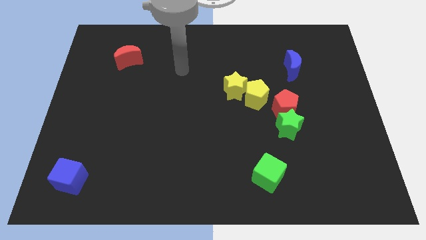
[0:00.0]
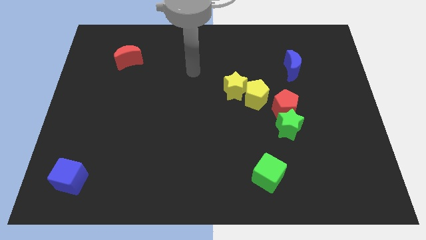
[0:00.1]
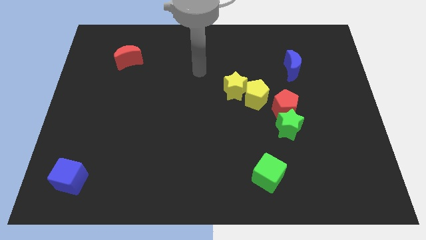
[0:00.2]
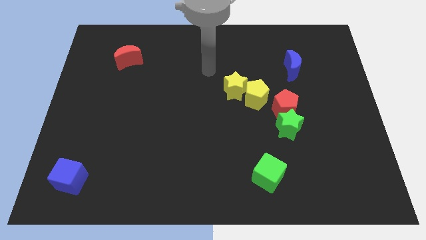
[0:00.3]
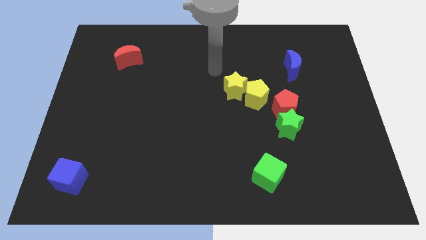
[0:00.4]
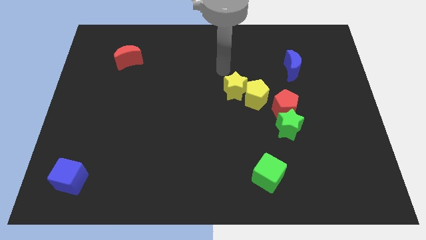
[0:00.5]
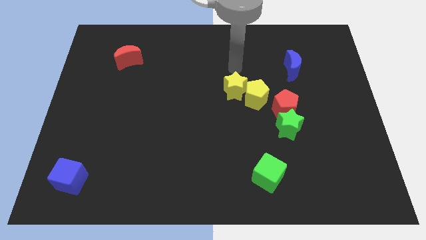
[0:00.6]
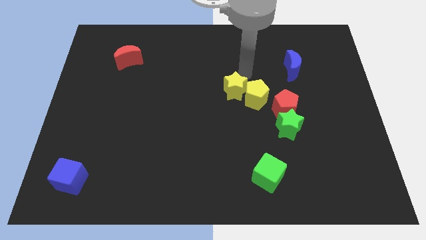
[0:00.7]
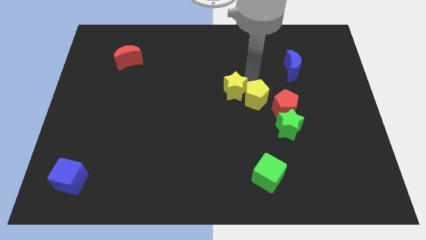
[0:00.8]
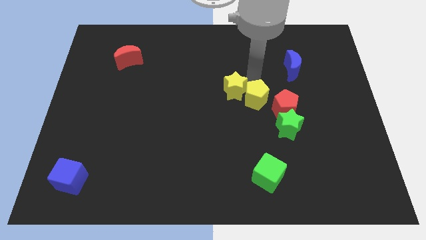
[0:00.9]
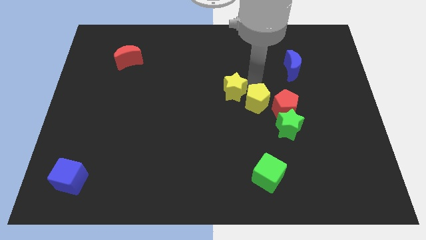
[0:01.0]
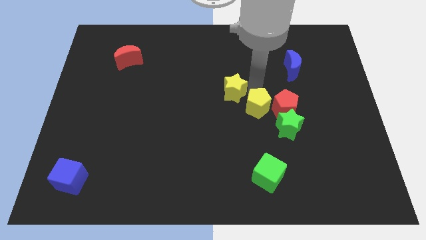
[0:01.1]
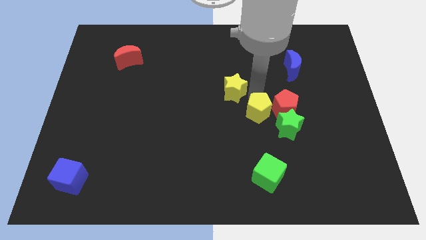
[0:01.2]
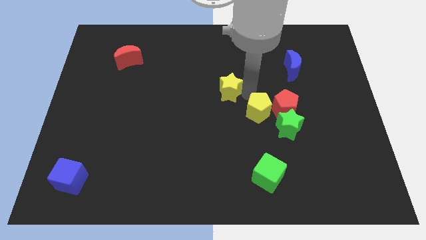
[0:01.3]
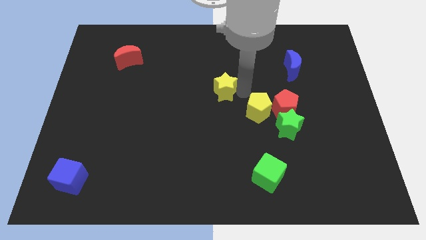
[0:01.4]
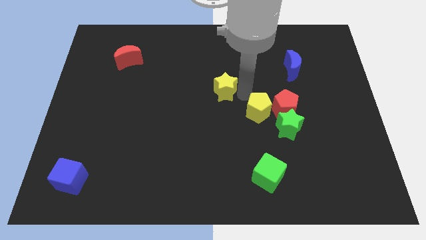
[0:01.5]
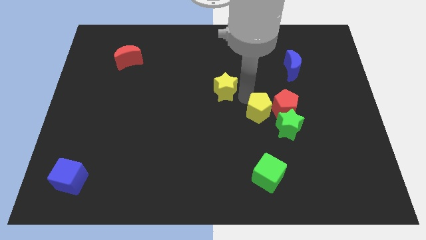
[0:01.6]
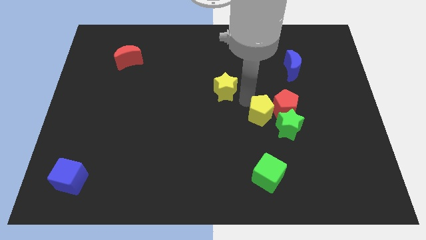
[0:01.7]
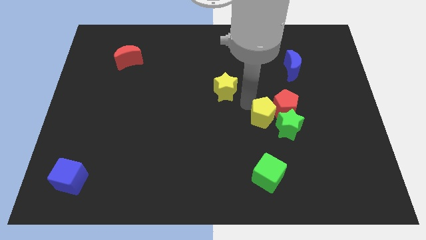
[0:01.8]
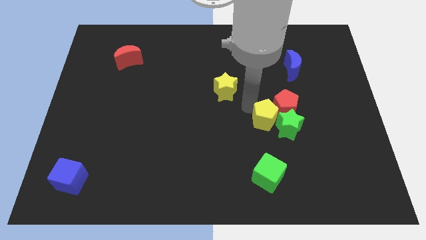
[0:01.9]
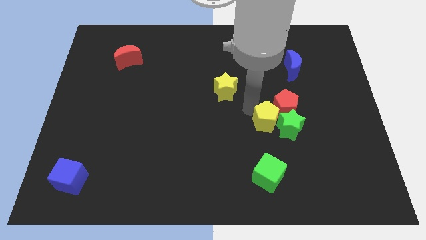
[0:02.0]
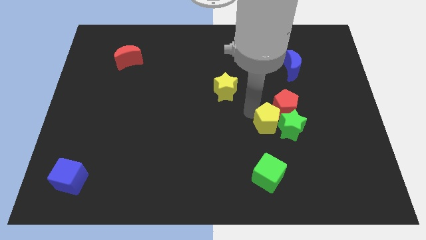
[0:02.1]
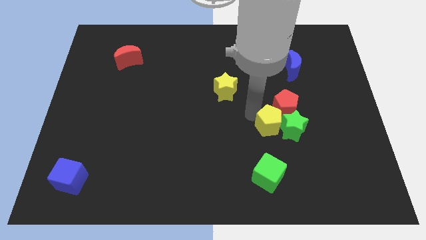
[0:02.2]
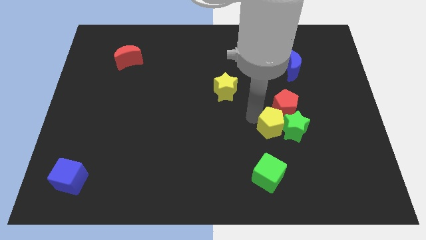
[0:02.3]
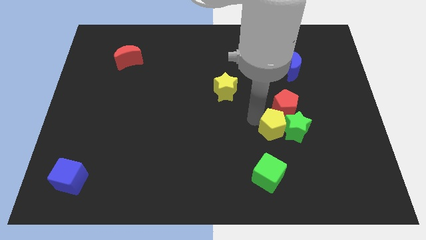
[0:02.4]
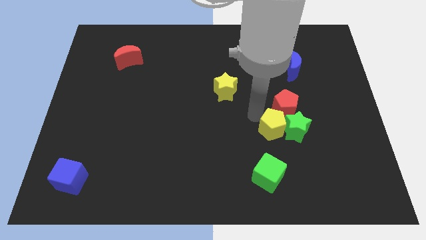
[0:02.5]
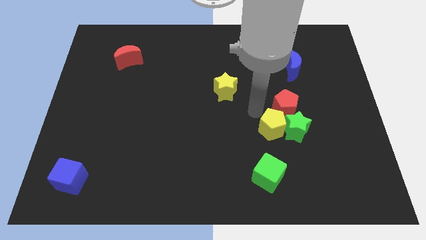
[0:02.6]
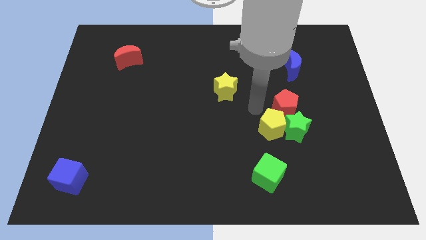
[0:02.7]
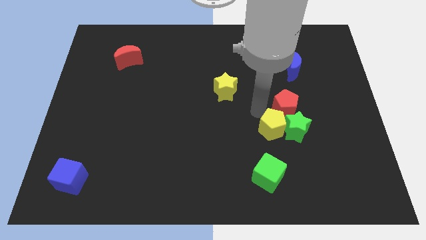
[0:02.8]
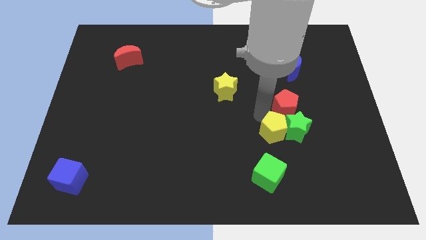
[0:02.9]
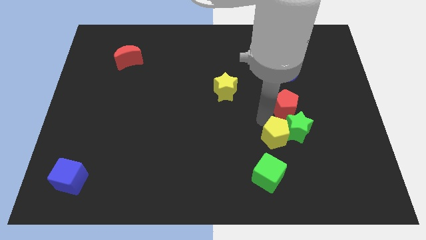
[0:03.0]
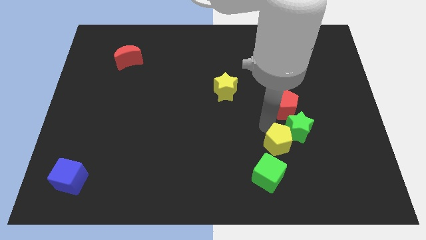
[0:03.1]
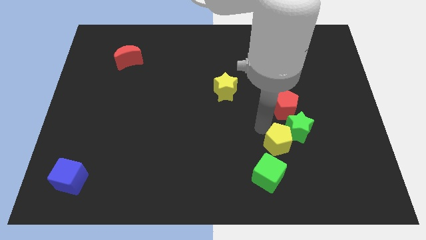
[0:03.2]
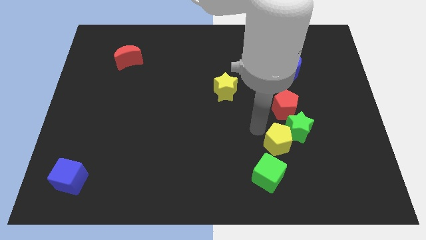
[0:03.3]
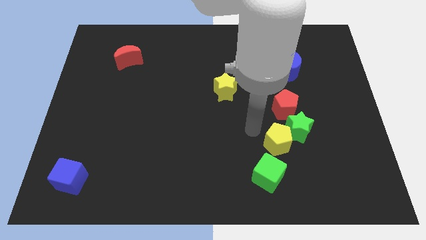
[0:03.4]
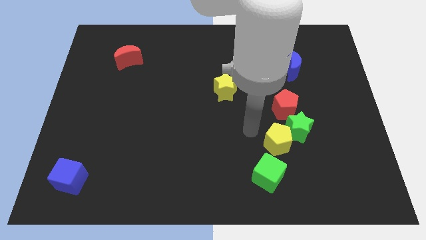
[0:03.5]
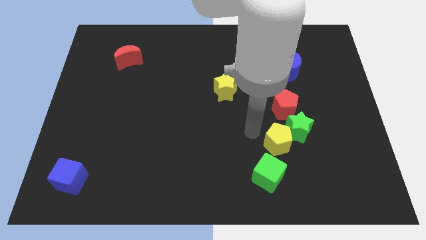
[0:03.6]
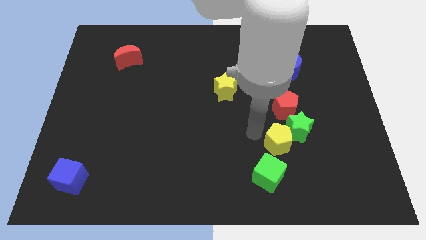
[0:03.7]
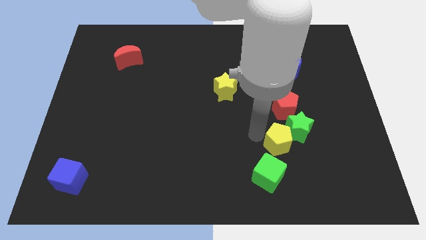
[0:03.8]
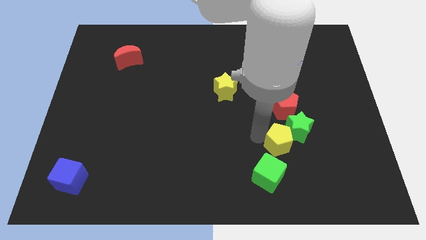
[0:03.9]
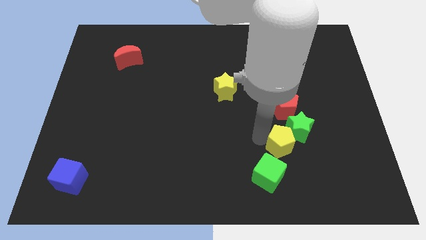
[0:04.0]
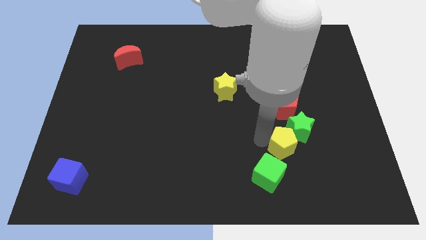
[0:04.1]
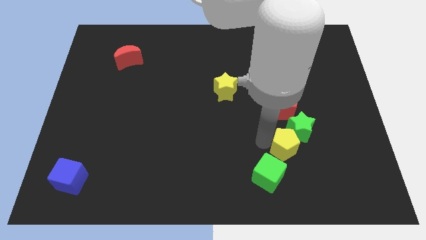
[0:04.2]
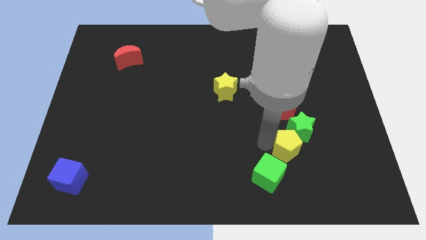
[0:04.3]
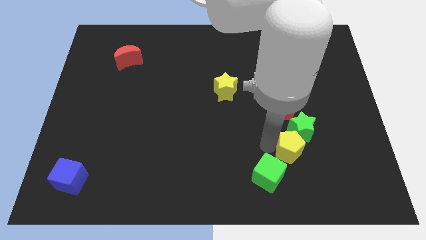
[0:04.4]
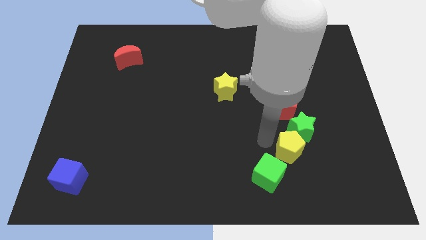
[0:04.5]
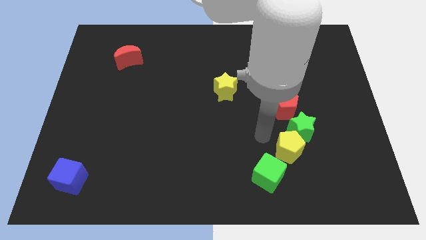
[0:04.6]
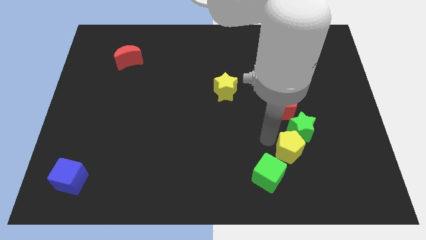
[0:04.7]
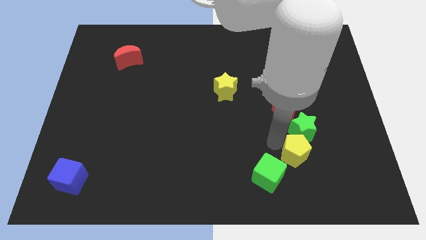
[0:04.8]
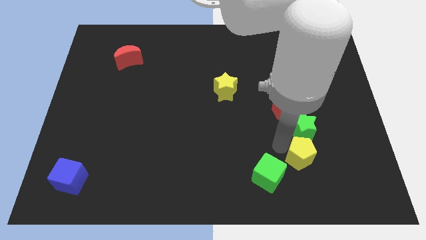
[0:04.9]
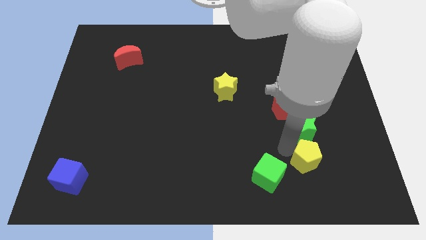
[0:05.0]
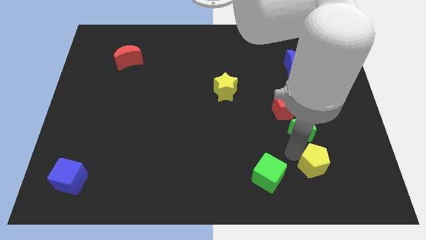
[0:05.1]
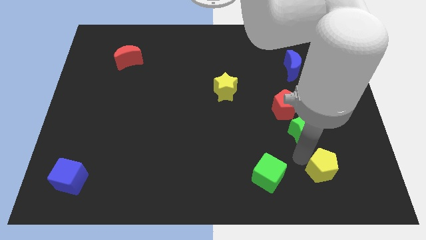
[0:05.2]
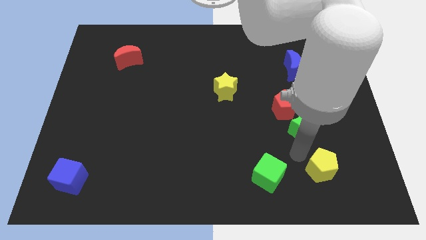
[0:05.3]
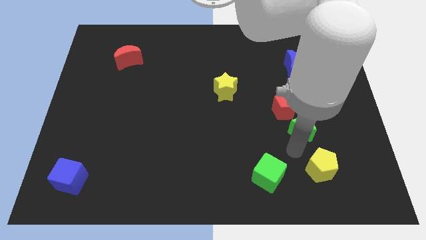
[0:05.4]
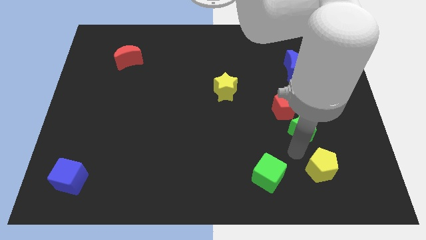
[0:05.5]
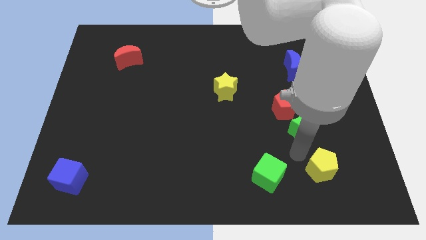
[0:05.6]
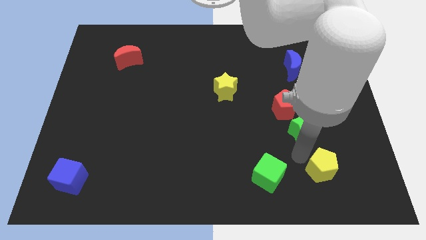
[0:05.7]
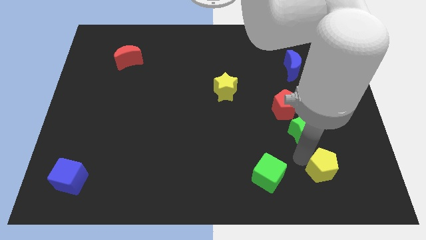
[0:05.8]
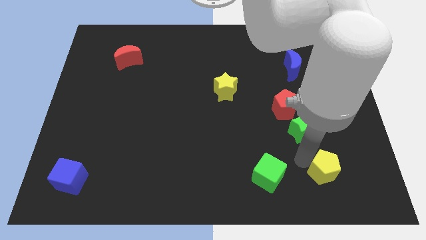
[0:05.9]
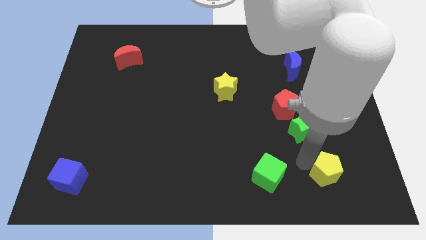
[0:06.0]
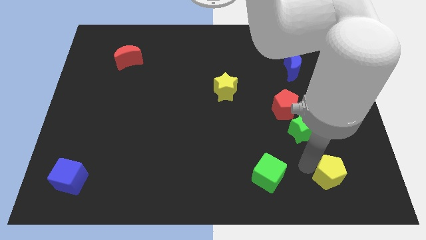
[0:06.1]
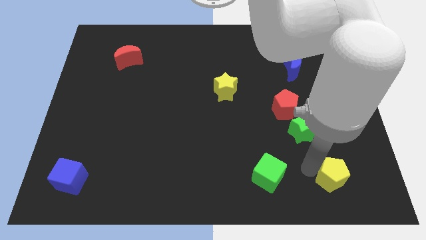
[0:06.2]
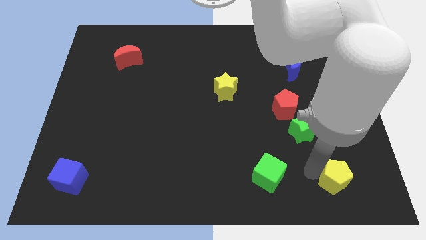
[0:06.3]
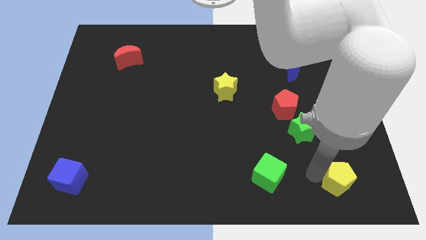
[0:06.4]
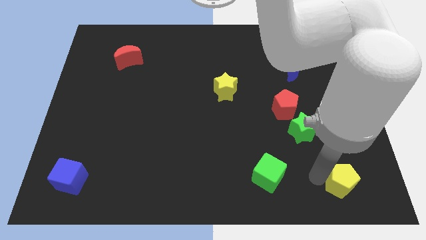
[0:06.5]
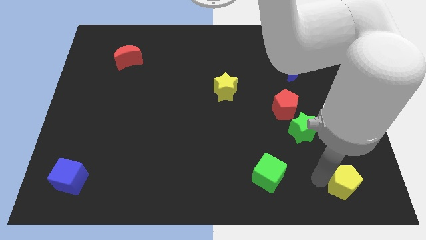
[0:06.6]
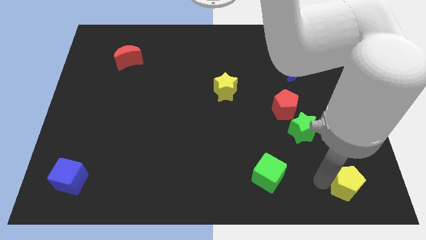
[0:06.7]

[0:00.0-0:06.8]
push the yellow pentagon to the bottom right

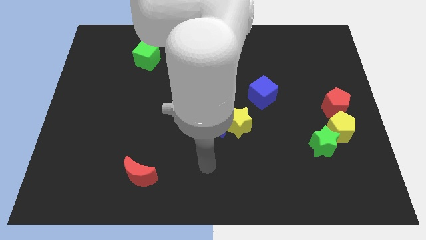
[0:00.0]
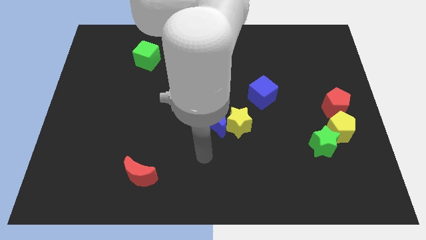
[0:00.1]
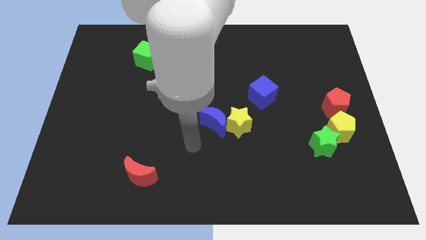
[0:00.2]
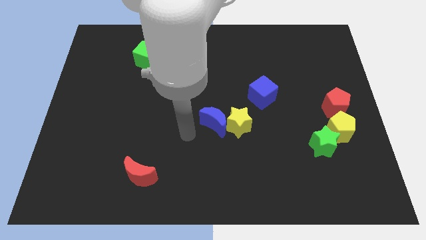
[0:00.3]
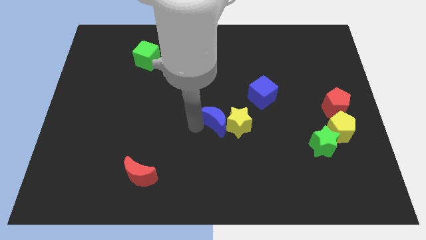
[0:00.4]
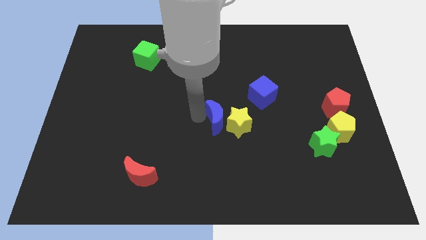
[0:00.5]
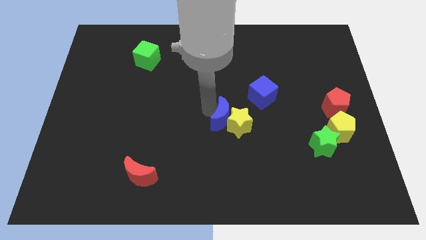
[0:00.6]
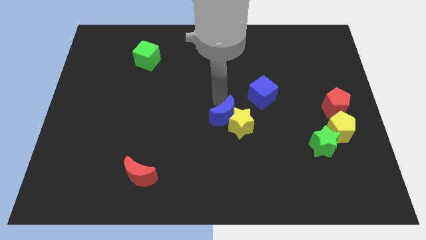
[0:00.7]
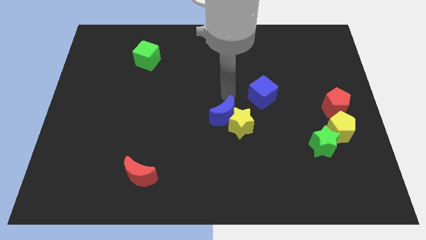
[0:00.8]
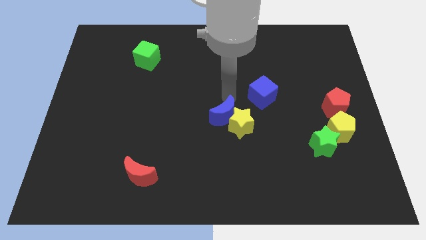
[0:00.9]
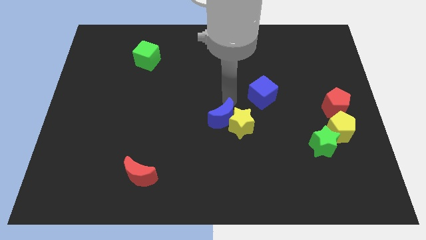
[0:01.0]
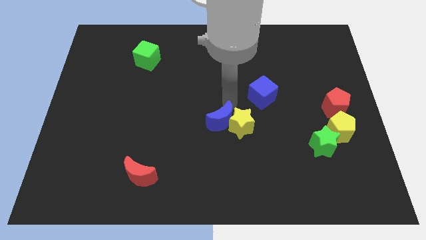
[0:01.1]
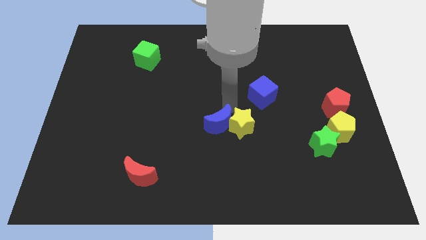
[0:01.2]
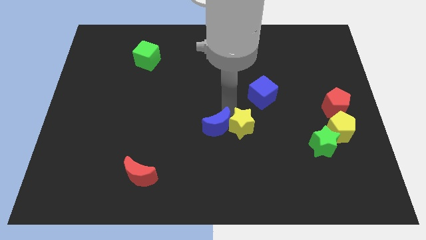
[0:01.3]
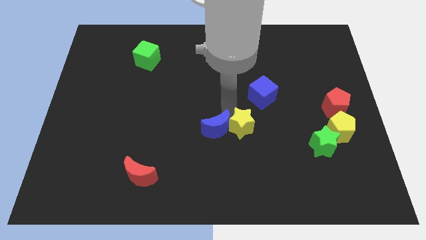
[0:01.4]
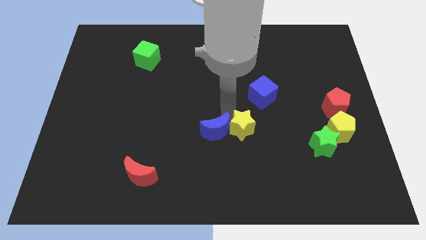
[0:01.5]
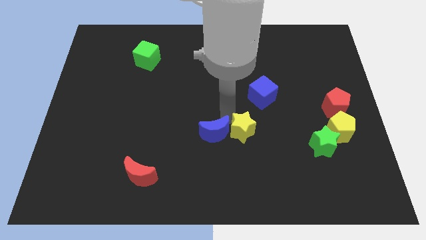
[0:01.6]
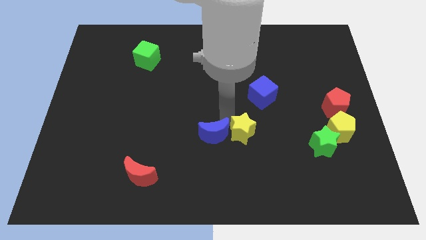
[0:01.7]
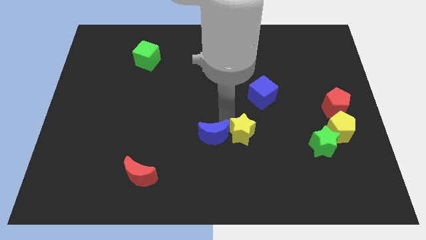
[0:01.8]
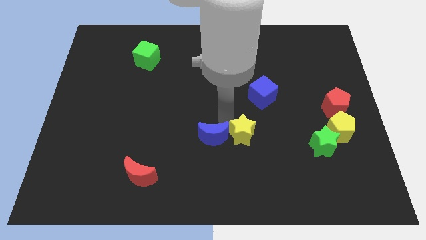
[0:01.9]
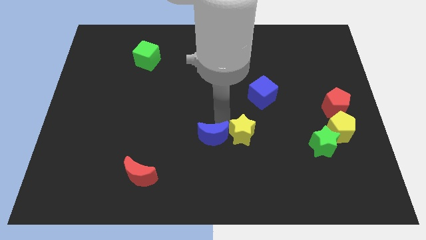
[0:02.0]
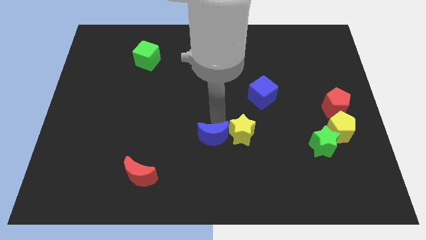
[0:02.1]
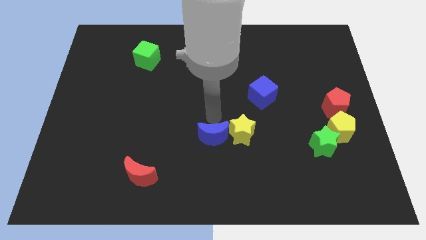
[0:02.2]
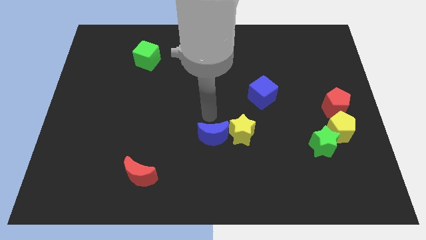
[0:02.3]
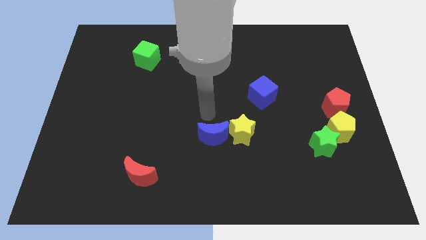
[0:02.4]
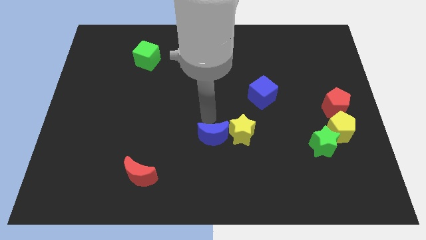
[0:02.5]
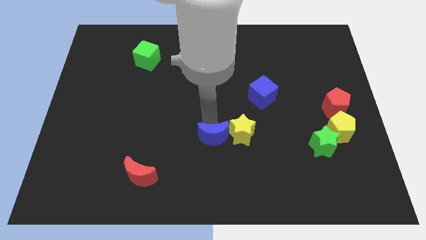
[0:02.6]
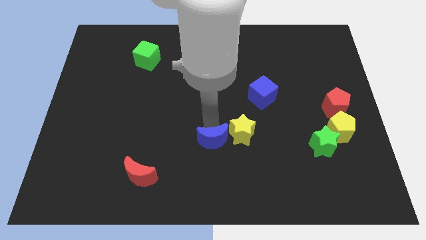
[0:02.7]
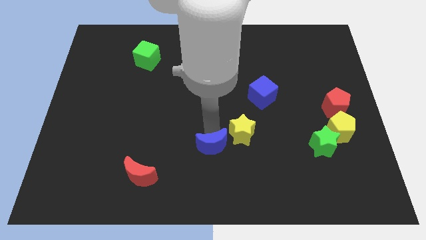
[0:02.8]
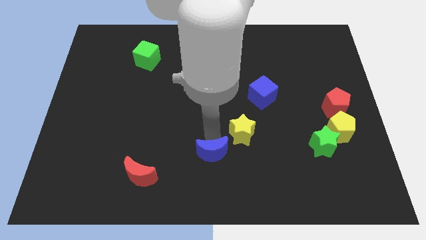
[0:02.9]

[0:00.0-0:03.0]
slide the blue moon to the bottom
